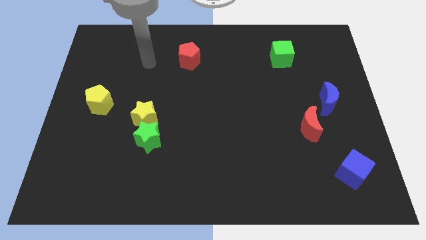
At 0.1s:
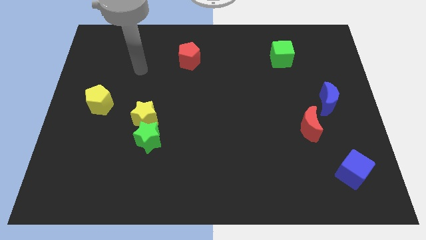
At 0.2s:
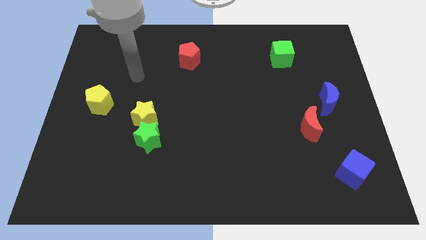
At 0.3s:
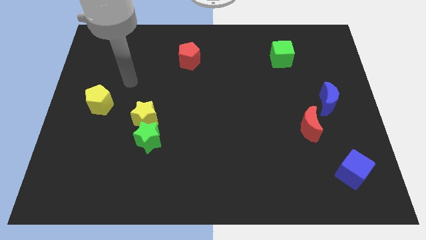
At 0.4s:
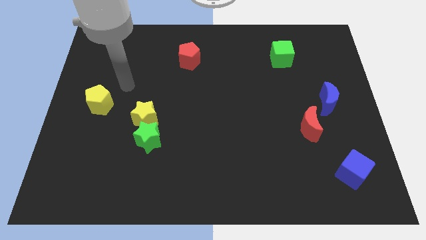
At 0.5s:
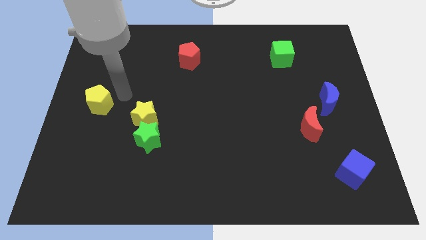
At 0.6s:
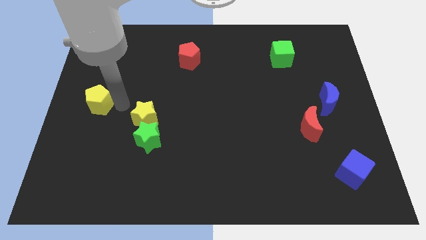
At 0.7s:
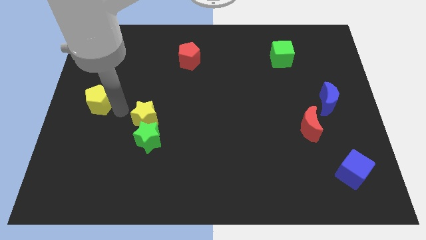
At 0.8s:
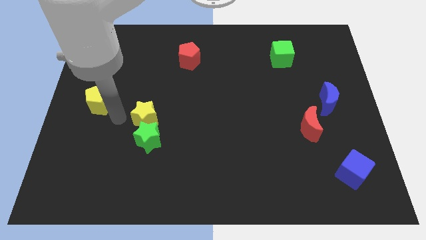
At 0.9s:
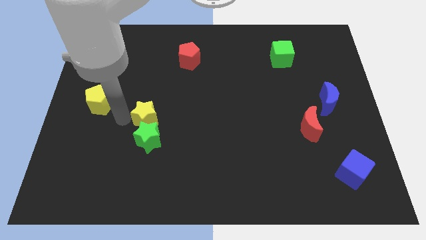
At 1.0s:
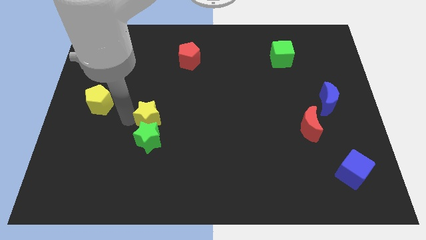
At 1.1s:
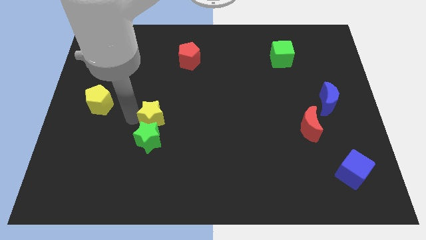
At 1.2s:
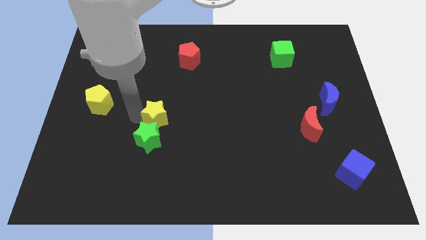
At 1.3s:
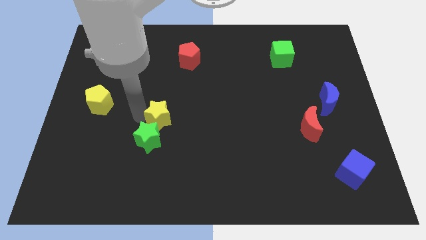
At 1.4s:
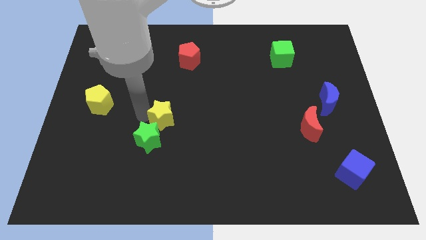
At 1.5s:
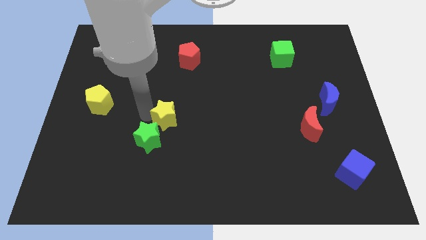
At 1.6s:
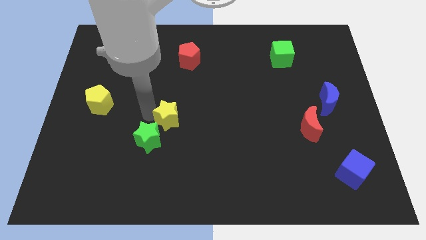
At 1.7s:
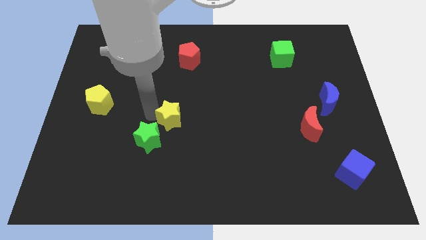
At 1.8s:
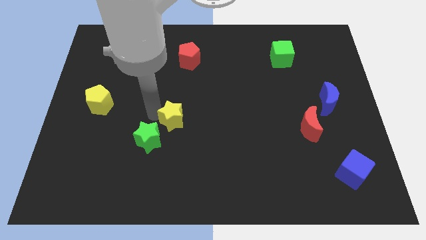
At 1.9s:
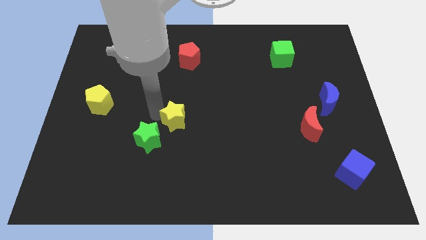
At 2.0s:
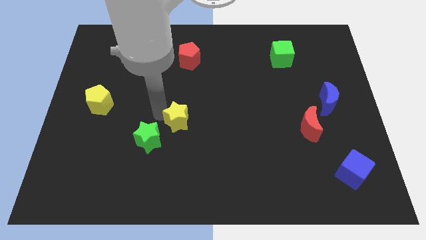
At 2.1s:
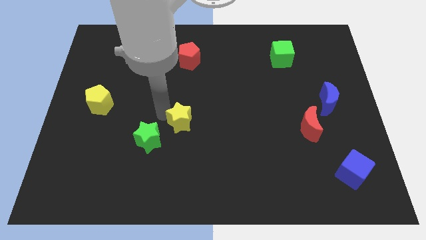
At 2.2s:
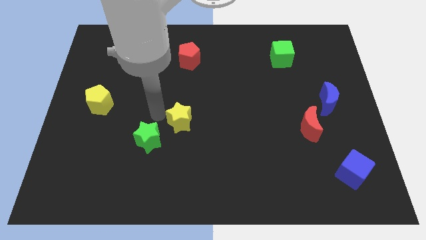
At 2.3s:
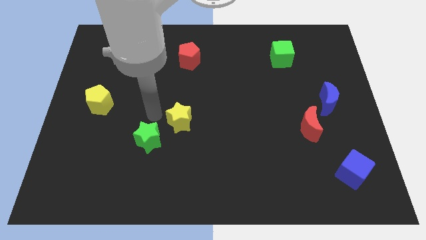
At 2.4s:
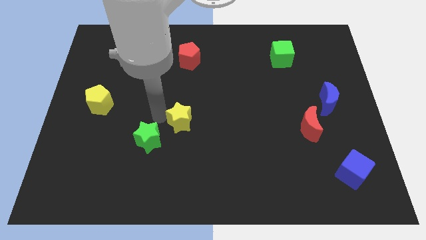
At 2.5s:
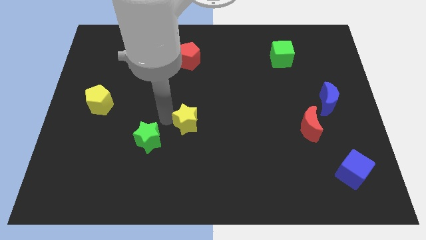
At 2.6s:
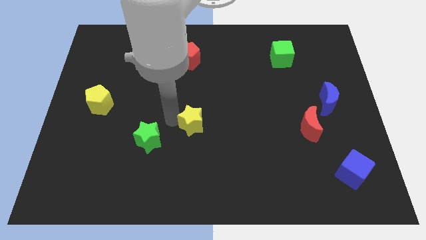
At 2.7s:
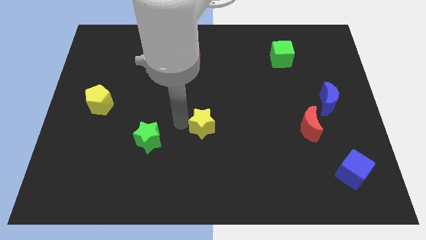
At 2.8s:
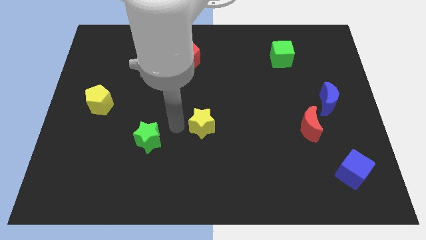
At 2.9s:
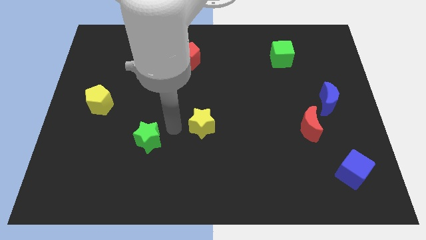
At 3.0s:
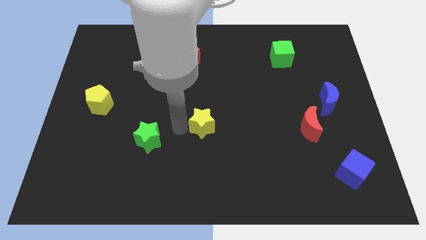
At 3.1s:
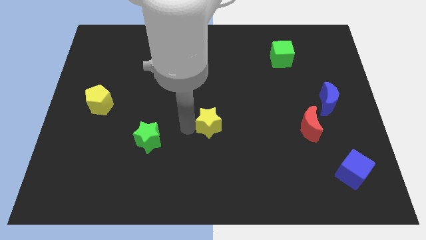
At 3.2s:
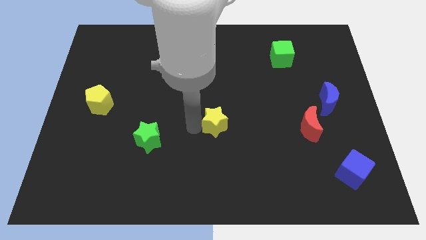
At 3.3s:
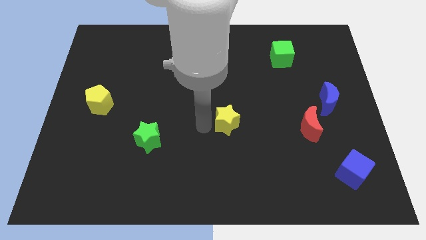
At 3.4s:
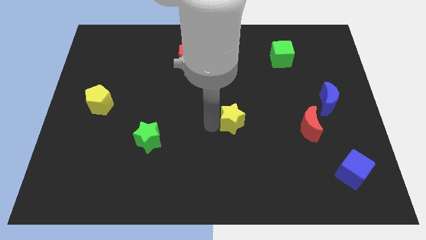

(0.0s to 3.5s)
slide the yellow star to the right

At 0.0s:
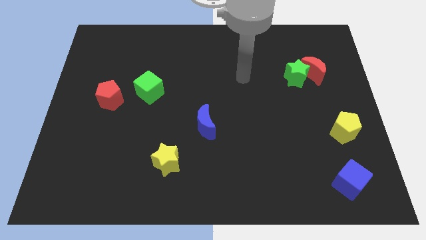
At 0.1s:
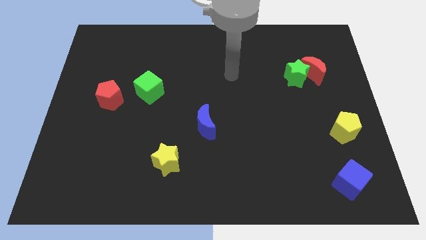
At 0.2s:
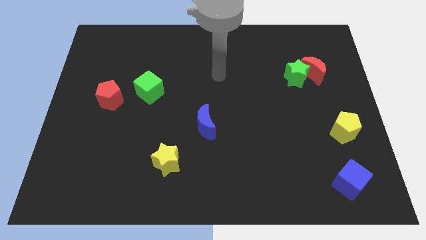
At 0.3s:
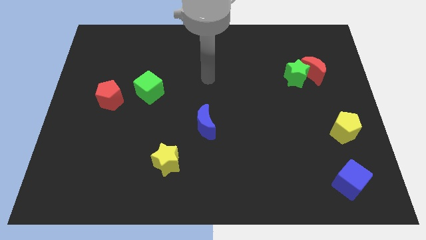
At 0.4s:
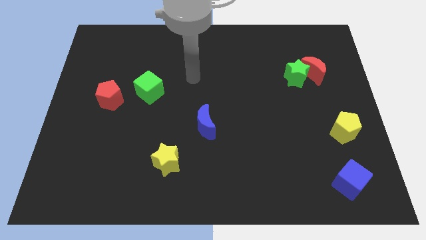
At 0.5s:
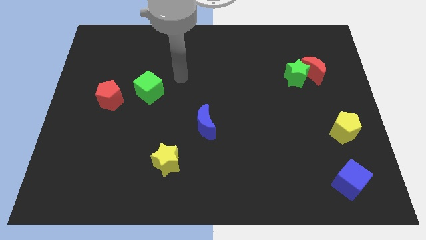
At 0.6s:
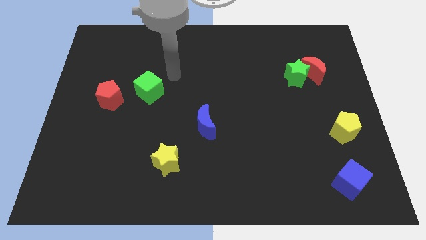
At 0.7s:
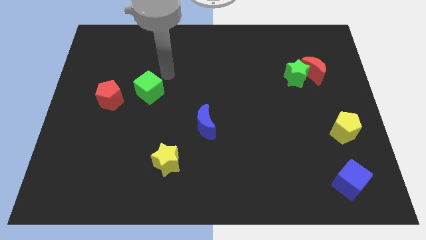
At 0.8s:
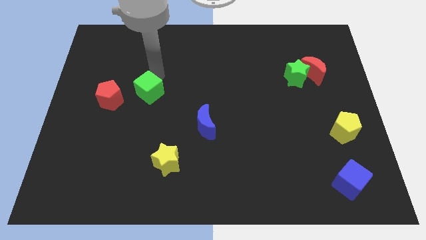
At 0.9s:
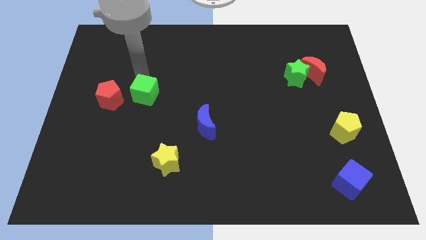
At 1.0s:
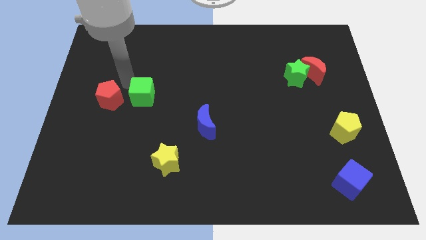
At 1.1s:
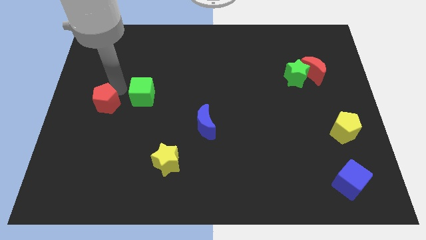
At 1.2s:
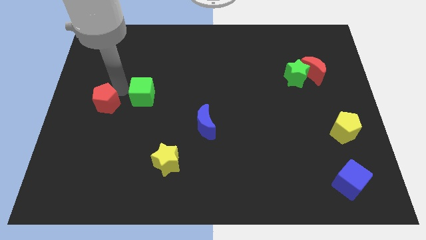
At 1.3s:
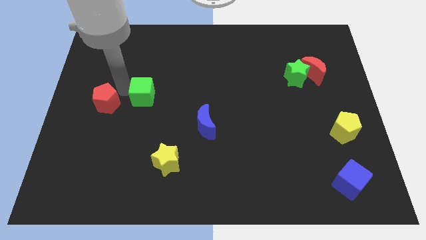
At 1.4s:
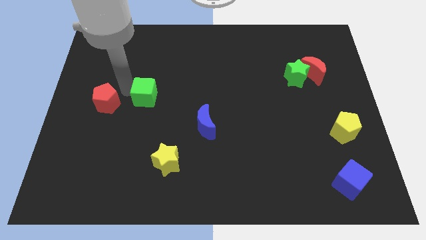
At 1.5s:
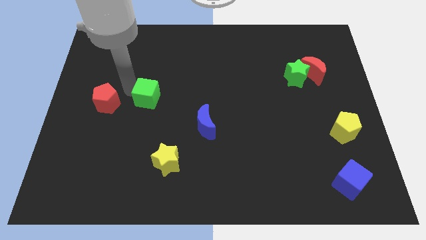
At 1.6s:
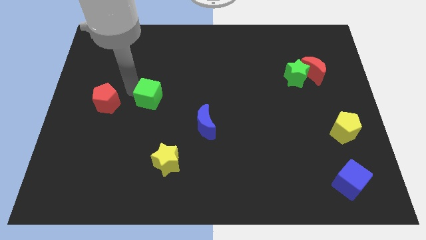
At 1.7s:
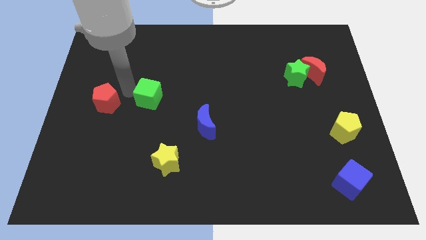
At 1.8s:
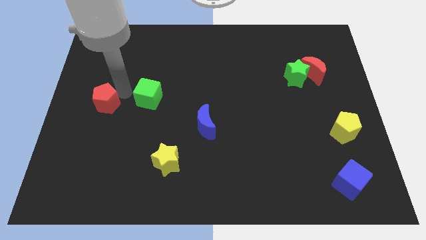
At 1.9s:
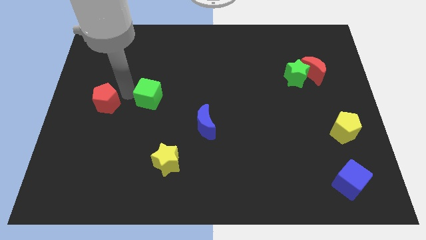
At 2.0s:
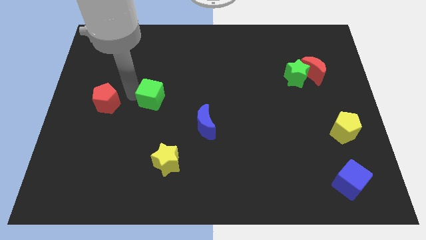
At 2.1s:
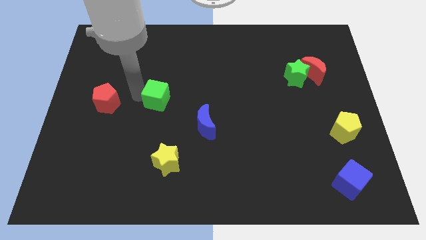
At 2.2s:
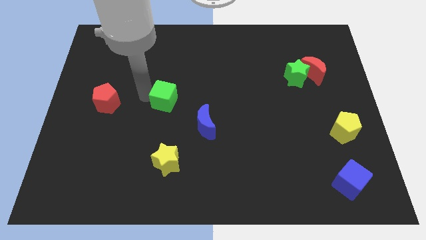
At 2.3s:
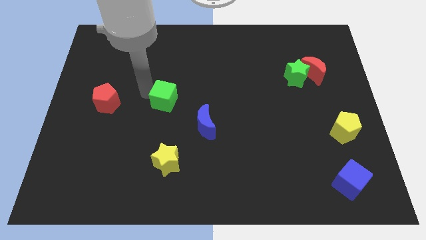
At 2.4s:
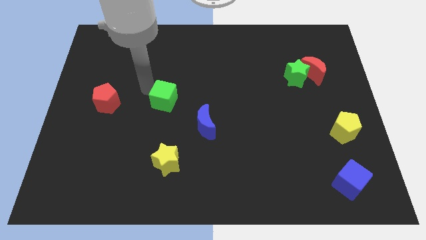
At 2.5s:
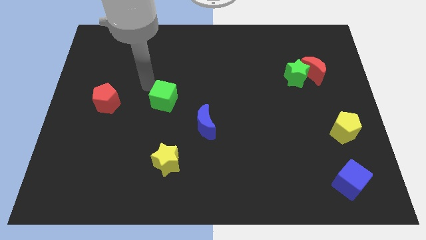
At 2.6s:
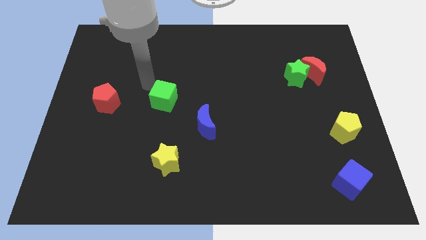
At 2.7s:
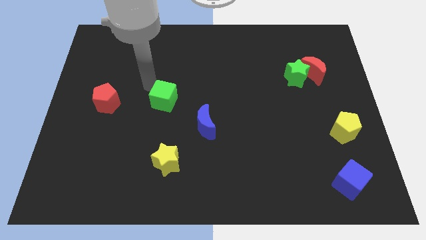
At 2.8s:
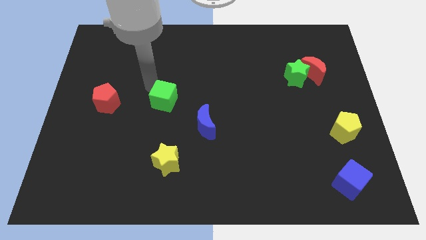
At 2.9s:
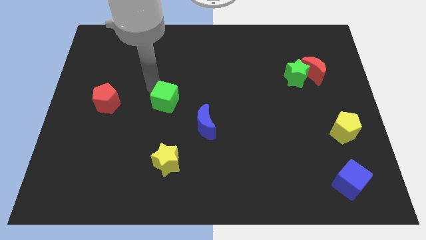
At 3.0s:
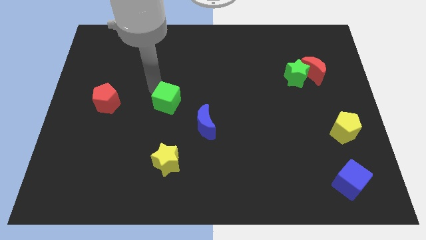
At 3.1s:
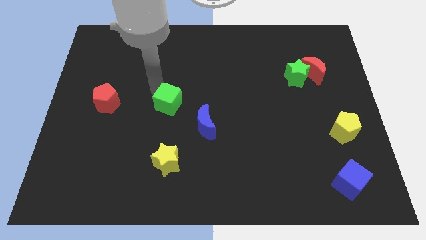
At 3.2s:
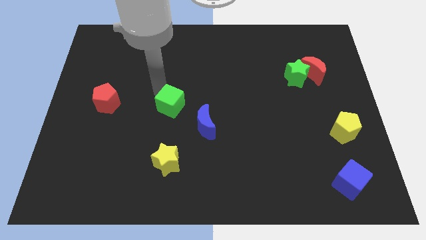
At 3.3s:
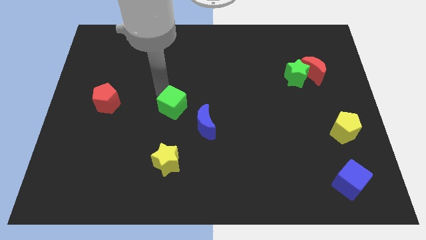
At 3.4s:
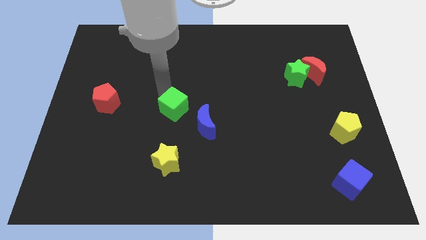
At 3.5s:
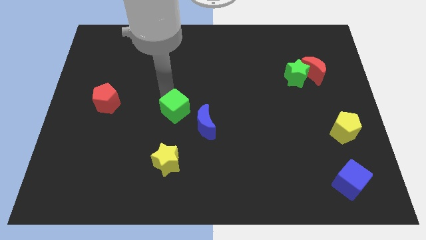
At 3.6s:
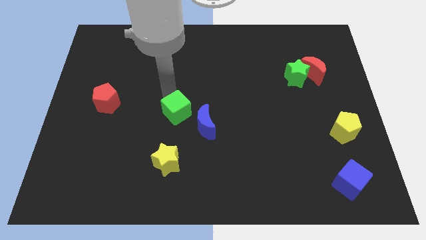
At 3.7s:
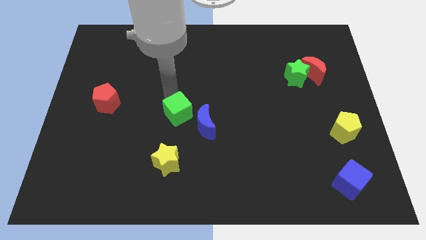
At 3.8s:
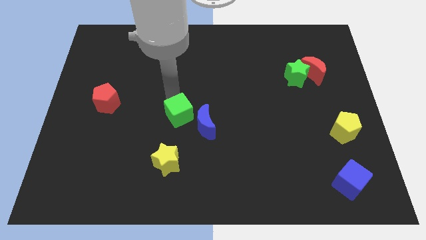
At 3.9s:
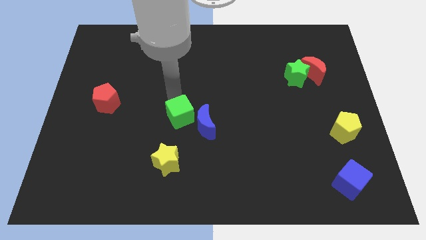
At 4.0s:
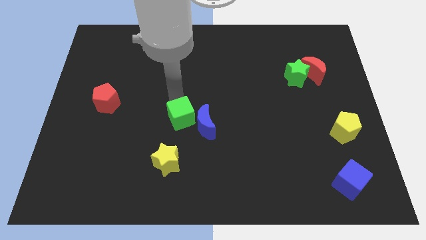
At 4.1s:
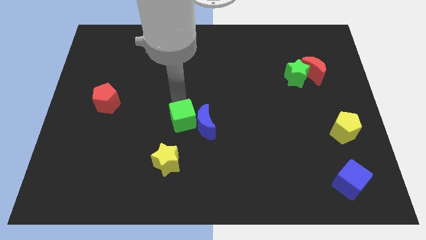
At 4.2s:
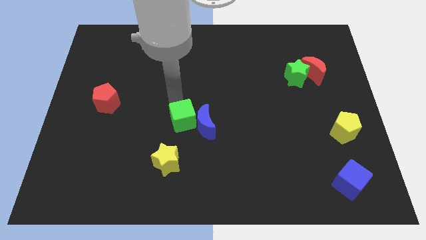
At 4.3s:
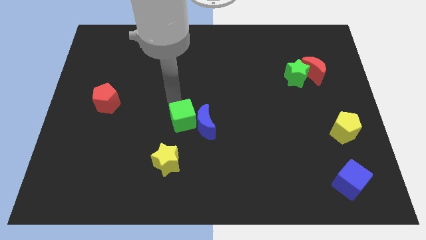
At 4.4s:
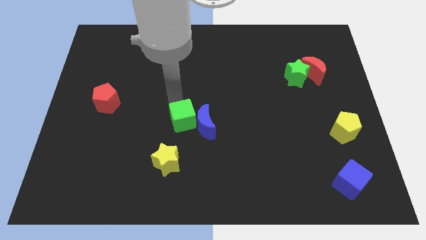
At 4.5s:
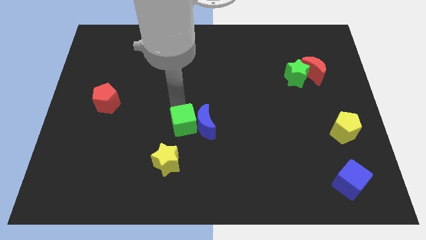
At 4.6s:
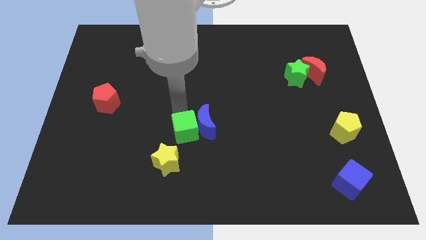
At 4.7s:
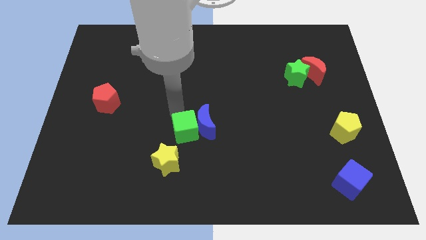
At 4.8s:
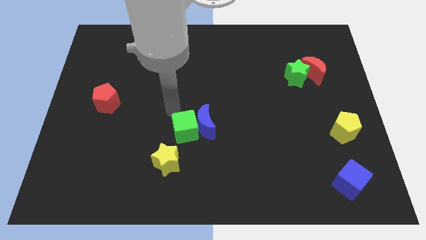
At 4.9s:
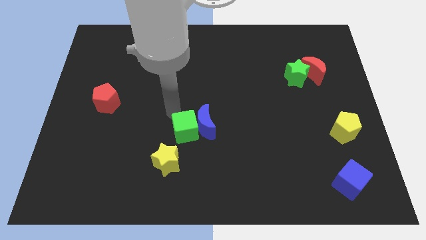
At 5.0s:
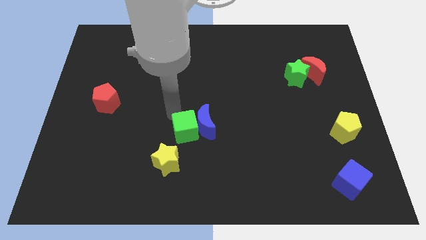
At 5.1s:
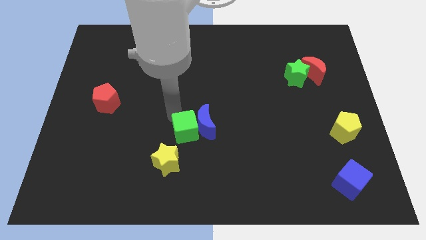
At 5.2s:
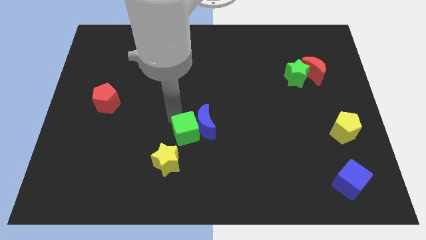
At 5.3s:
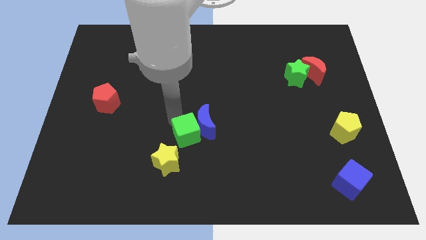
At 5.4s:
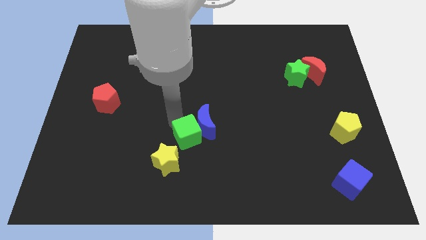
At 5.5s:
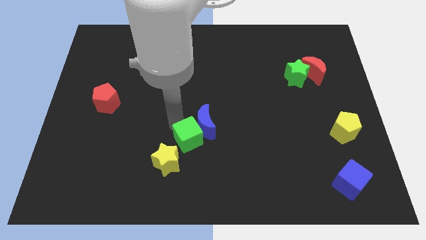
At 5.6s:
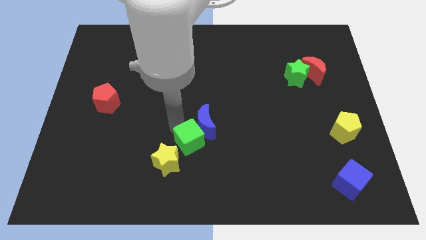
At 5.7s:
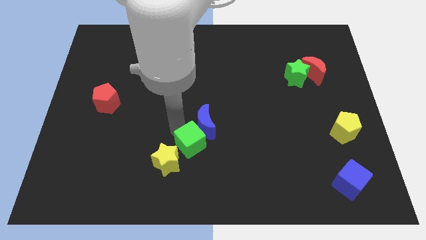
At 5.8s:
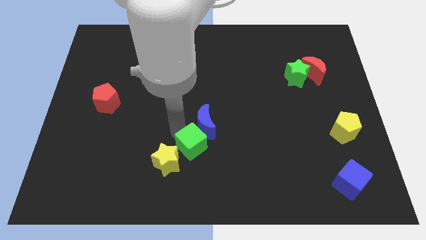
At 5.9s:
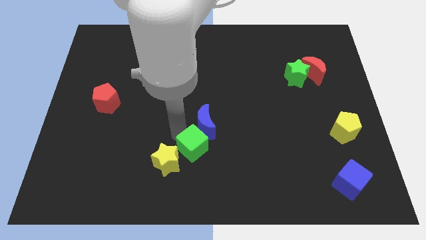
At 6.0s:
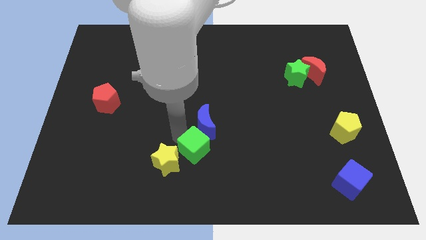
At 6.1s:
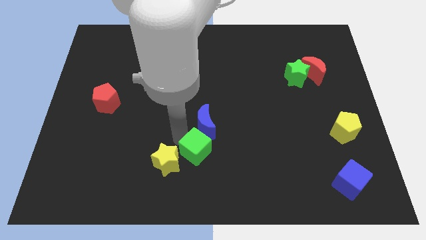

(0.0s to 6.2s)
push the green cube down and then right
